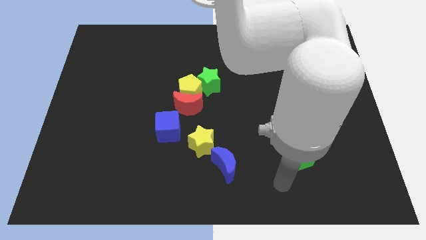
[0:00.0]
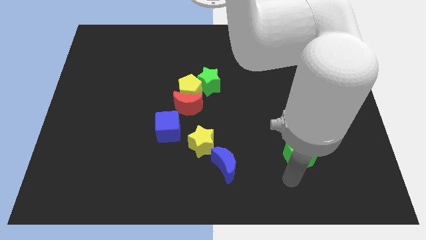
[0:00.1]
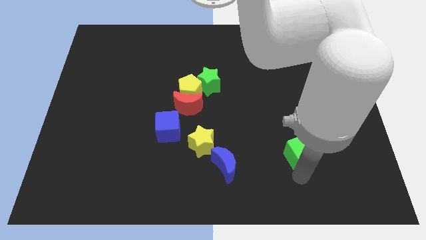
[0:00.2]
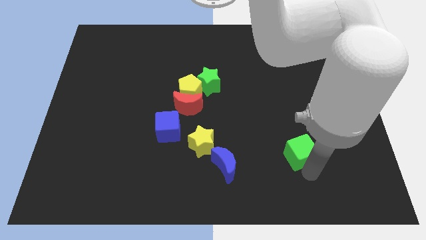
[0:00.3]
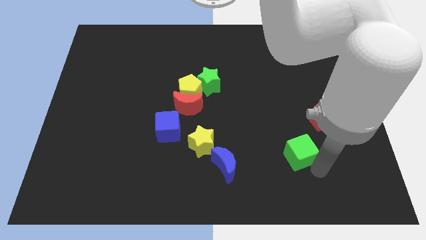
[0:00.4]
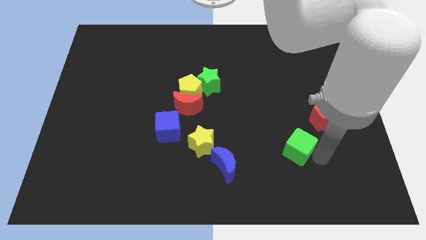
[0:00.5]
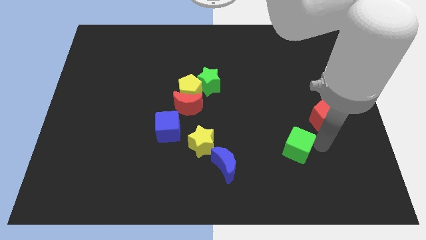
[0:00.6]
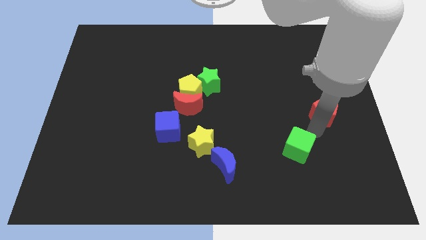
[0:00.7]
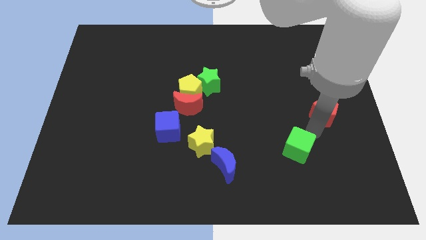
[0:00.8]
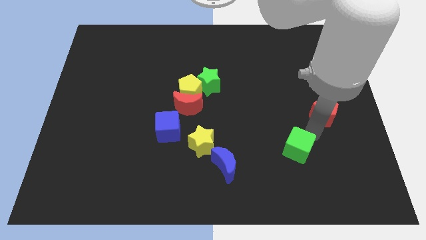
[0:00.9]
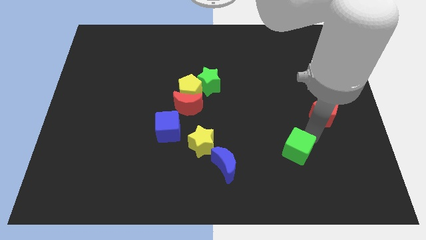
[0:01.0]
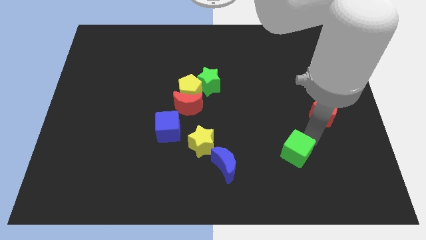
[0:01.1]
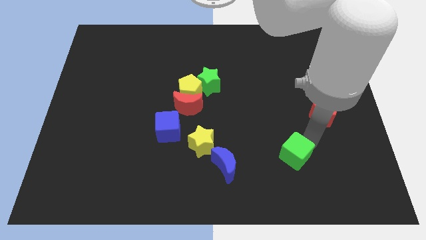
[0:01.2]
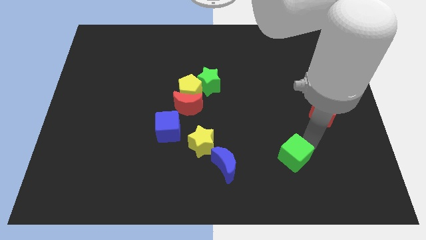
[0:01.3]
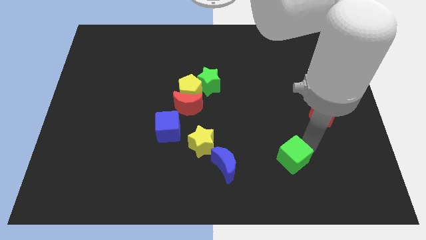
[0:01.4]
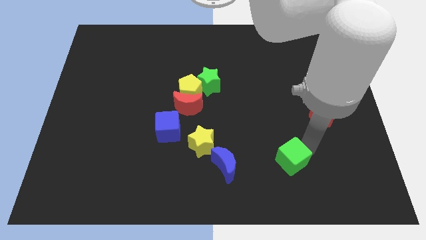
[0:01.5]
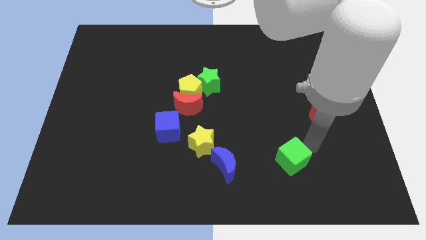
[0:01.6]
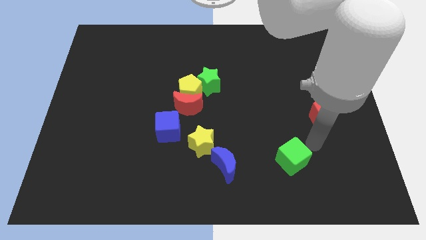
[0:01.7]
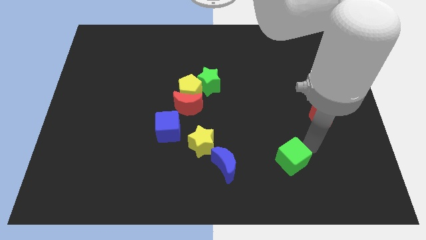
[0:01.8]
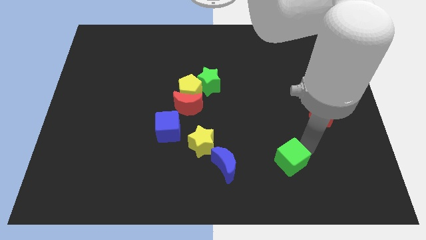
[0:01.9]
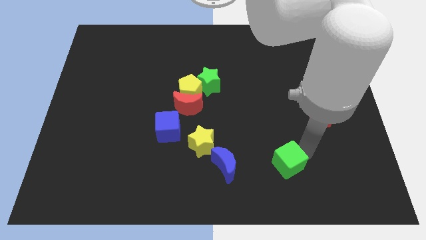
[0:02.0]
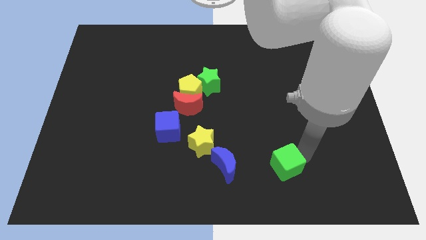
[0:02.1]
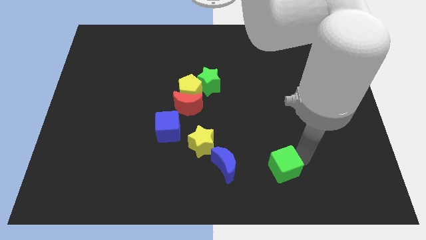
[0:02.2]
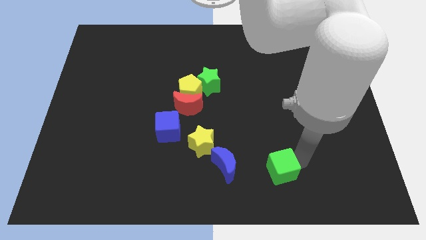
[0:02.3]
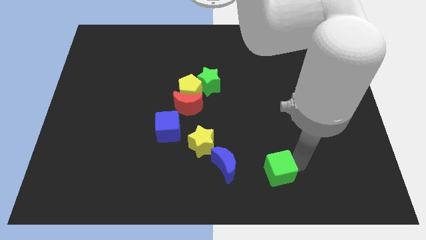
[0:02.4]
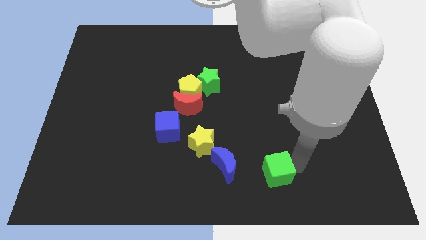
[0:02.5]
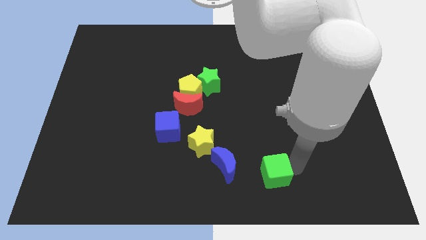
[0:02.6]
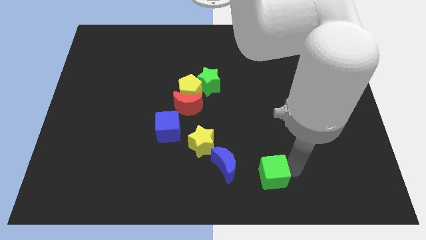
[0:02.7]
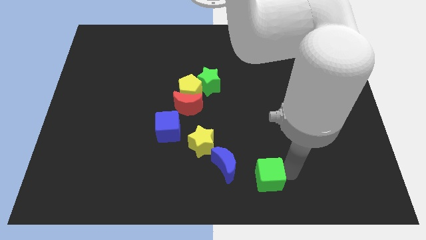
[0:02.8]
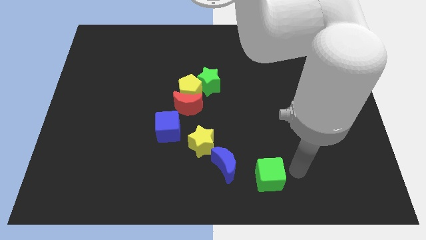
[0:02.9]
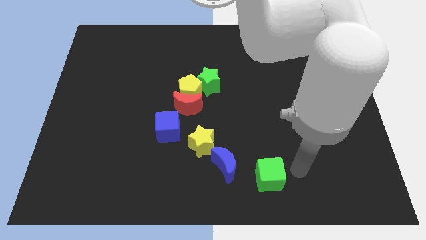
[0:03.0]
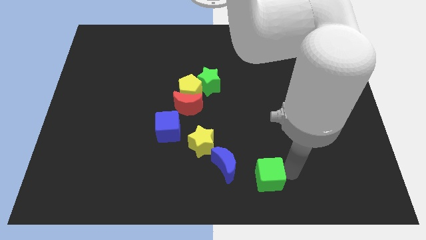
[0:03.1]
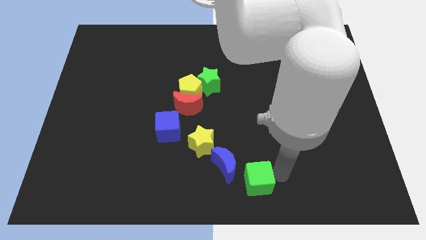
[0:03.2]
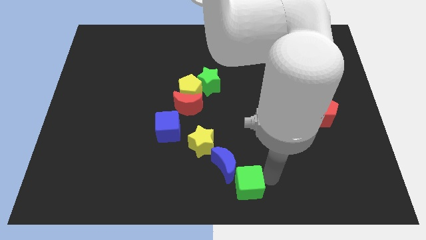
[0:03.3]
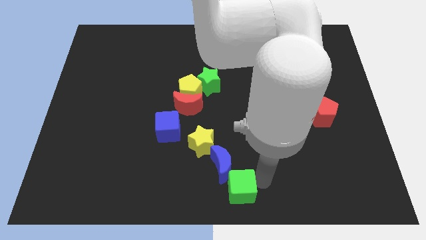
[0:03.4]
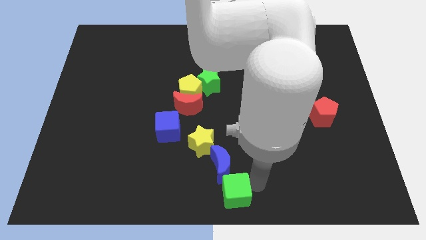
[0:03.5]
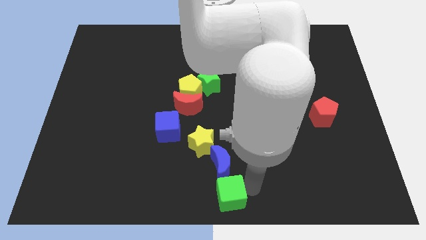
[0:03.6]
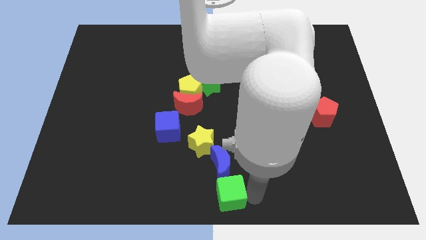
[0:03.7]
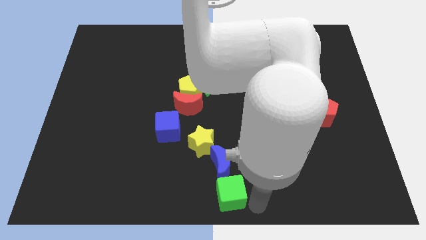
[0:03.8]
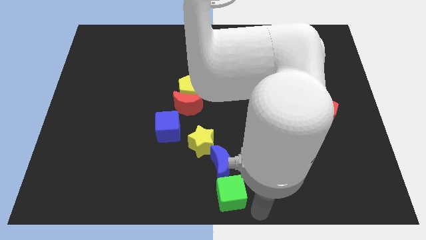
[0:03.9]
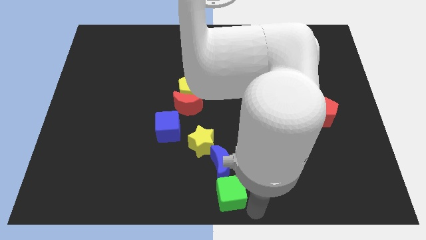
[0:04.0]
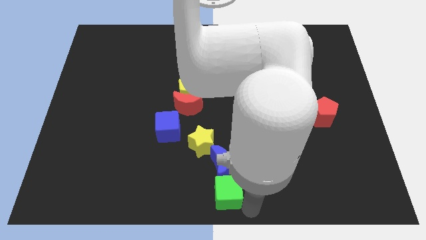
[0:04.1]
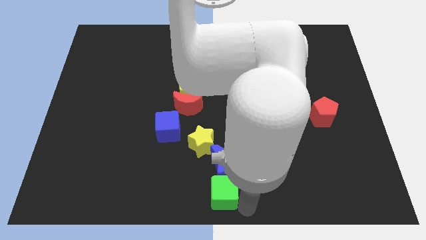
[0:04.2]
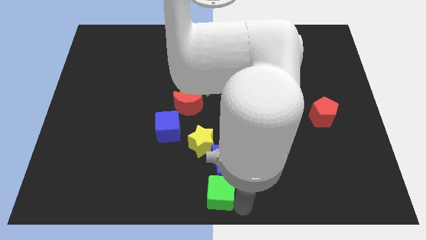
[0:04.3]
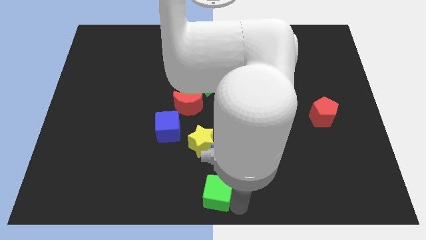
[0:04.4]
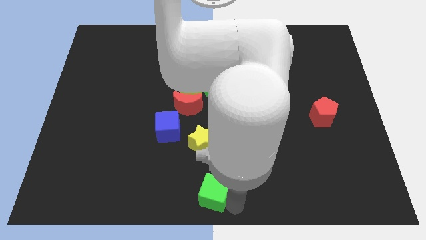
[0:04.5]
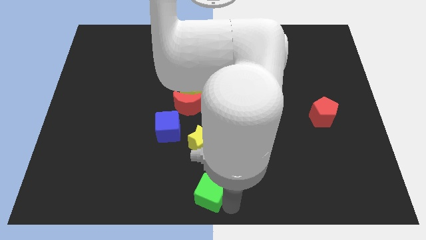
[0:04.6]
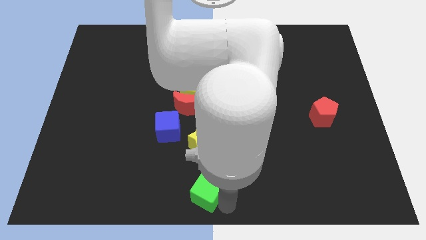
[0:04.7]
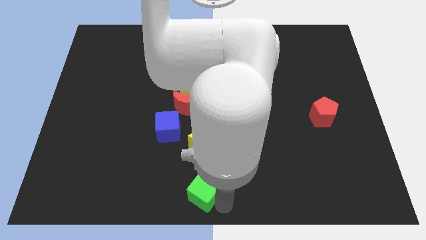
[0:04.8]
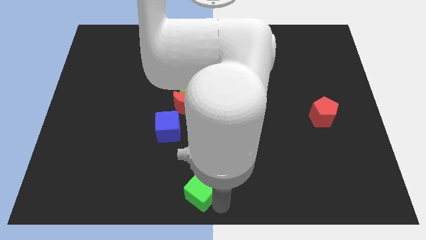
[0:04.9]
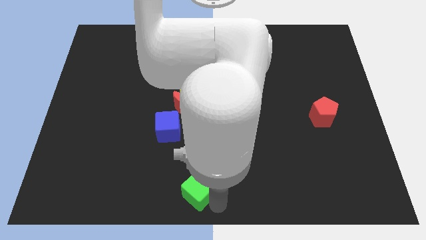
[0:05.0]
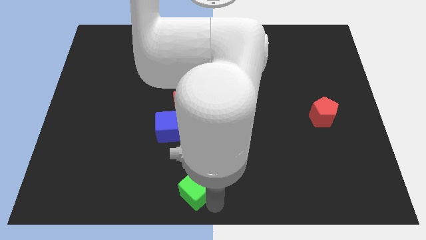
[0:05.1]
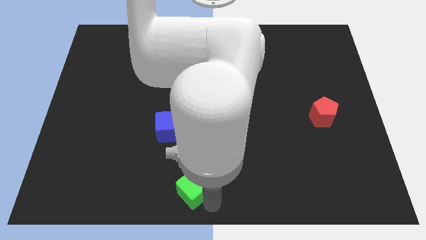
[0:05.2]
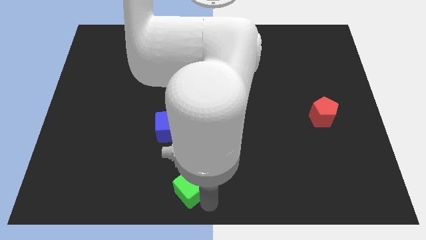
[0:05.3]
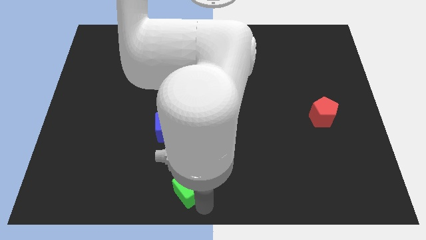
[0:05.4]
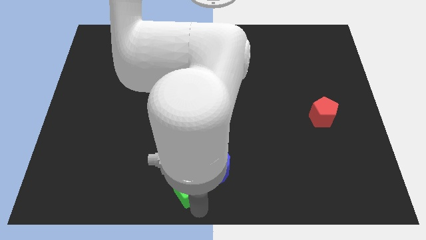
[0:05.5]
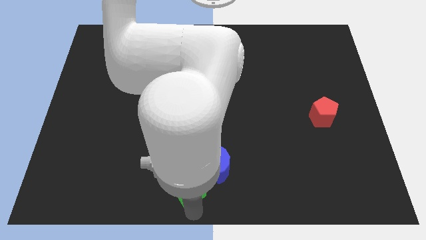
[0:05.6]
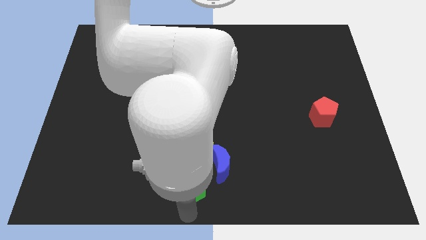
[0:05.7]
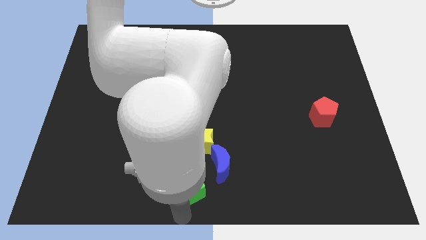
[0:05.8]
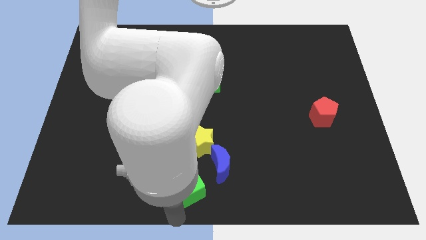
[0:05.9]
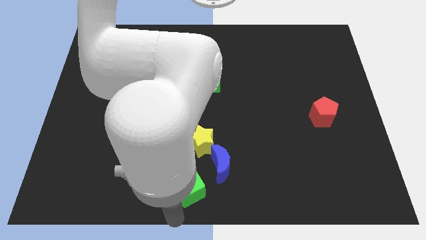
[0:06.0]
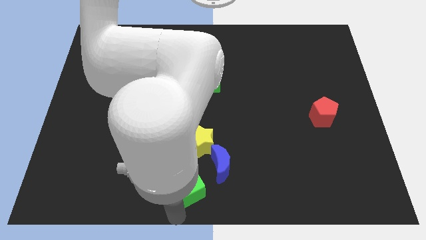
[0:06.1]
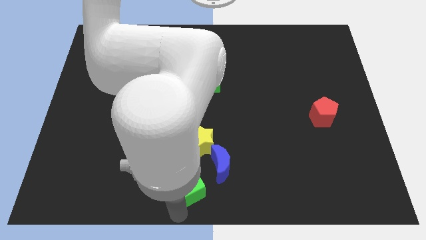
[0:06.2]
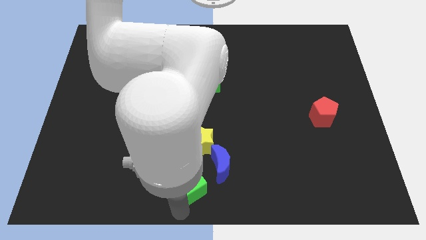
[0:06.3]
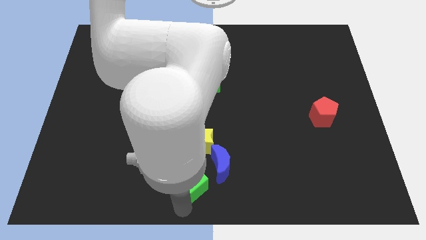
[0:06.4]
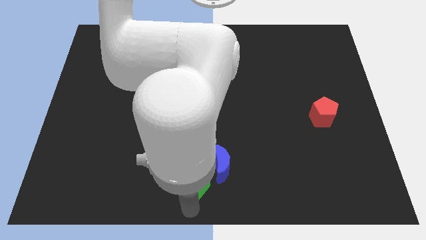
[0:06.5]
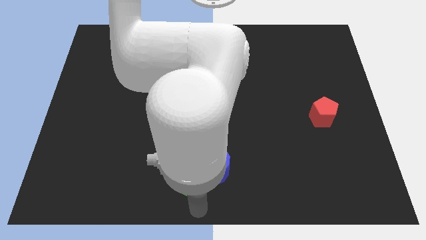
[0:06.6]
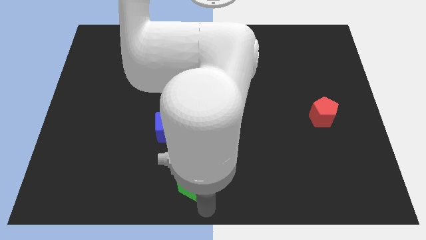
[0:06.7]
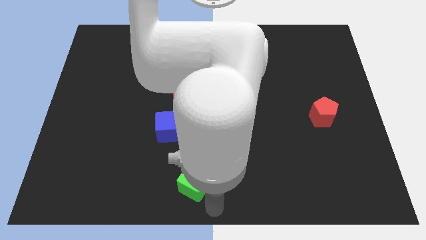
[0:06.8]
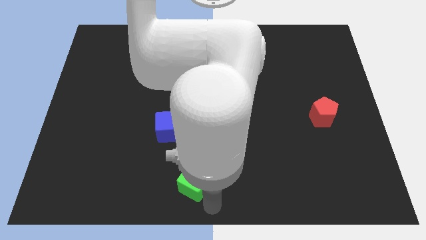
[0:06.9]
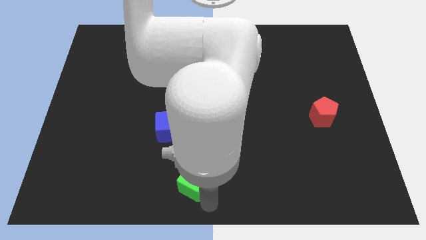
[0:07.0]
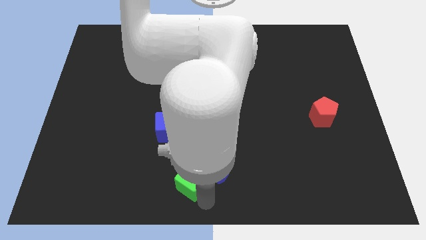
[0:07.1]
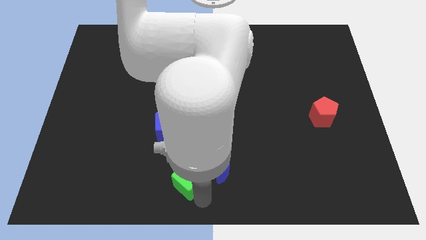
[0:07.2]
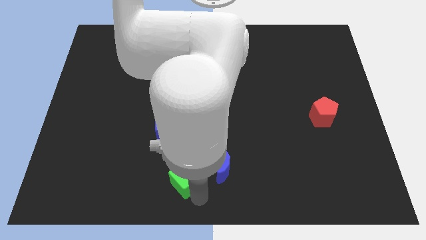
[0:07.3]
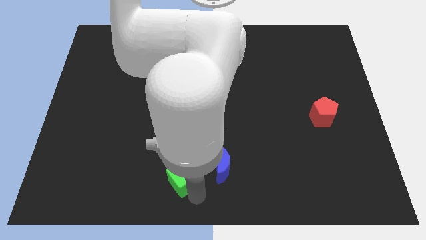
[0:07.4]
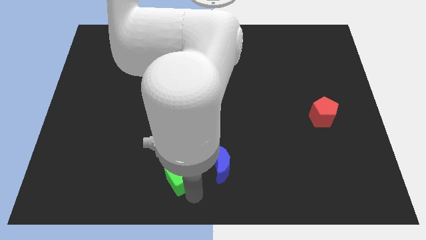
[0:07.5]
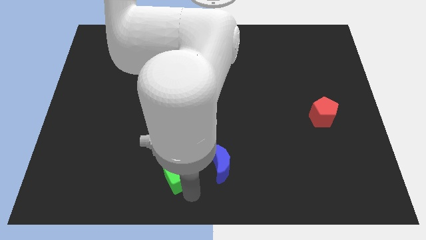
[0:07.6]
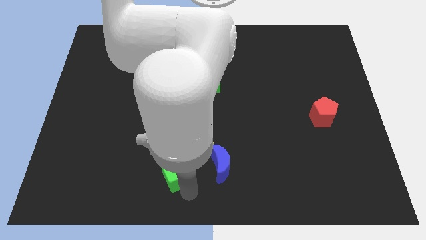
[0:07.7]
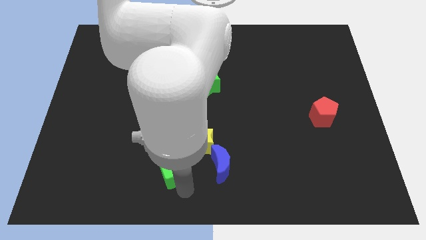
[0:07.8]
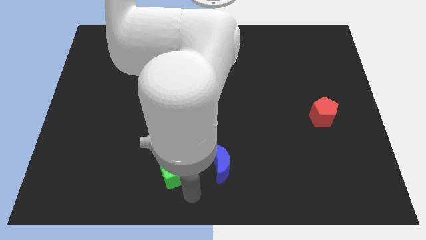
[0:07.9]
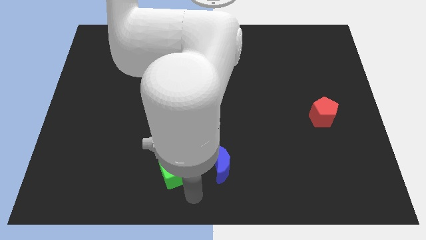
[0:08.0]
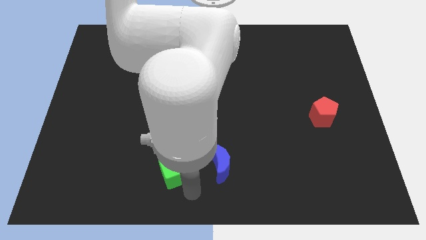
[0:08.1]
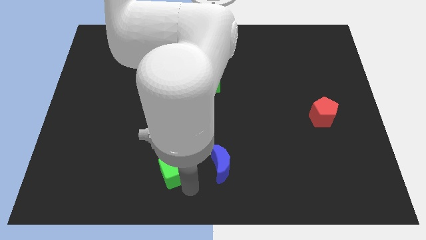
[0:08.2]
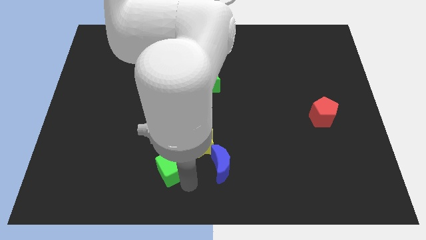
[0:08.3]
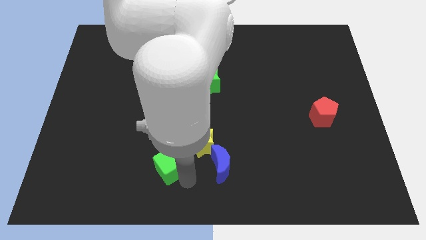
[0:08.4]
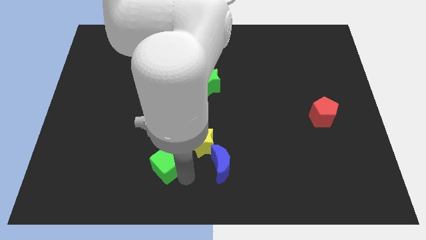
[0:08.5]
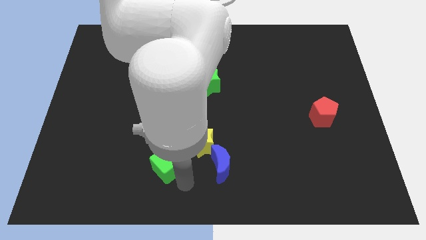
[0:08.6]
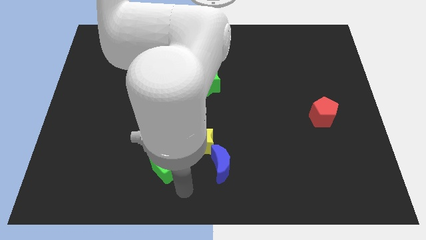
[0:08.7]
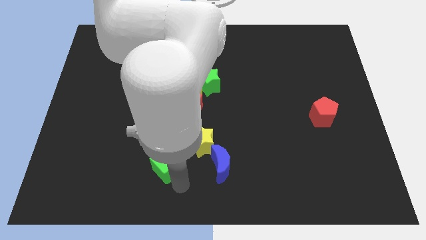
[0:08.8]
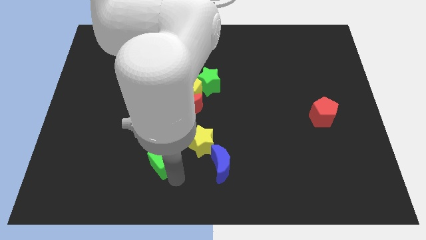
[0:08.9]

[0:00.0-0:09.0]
put the green cube to the left side of the yellow star
